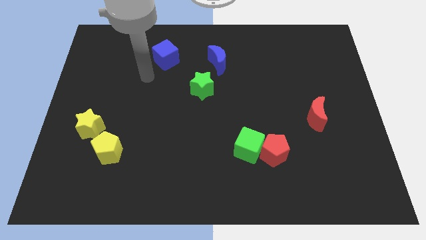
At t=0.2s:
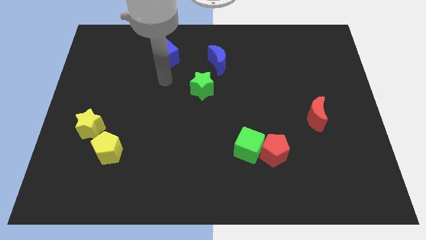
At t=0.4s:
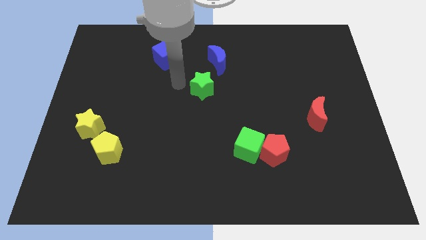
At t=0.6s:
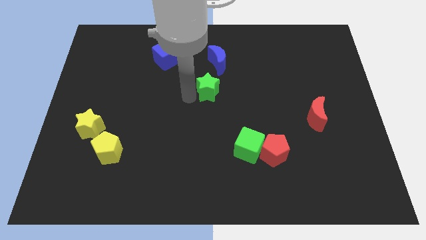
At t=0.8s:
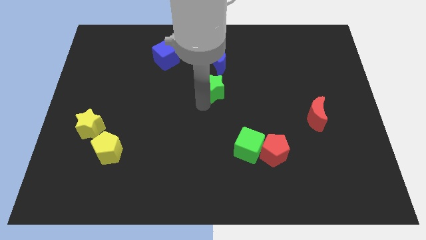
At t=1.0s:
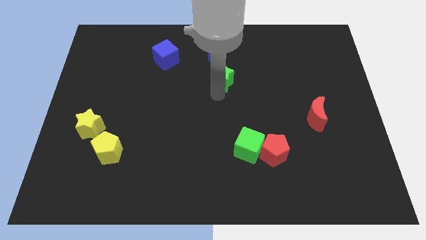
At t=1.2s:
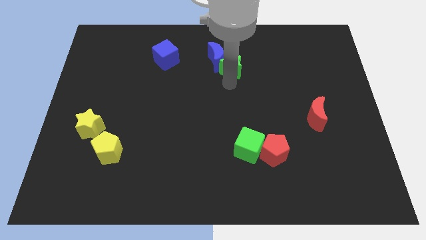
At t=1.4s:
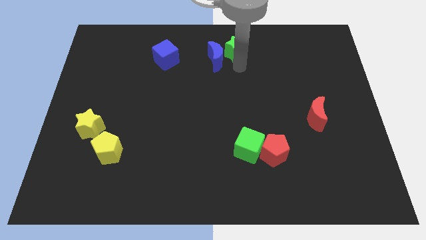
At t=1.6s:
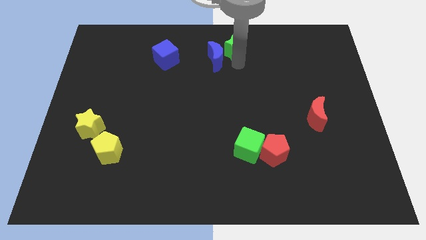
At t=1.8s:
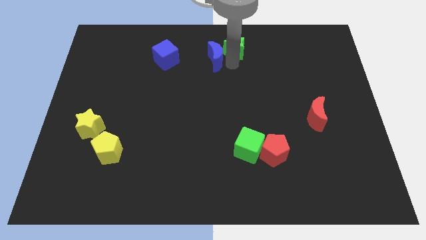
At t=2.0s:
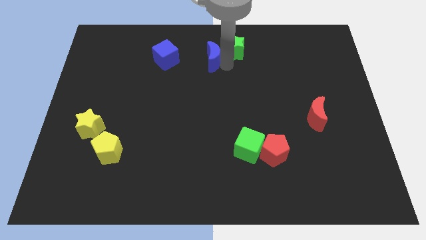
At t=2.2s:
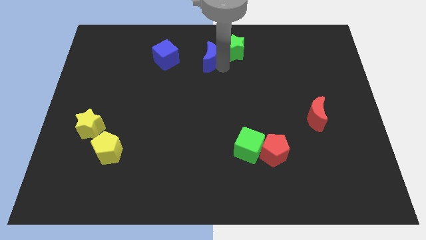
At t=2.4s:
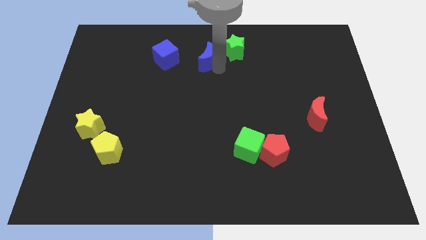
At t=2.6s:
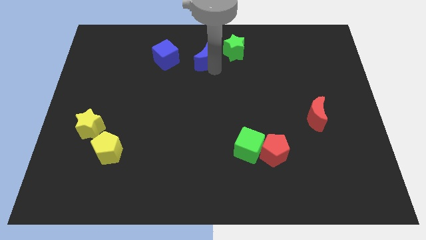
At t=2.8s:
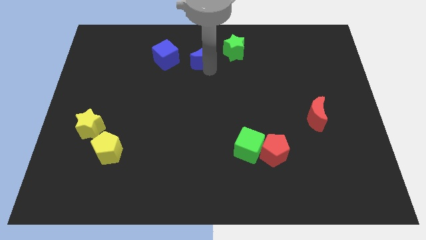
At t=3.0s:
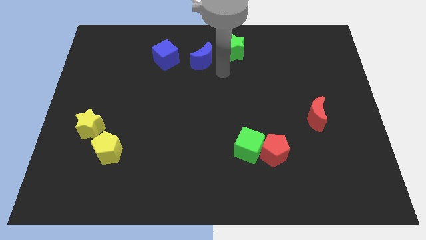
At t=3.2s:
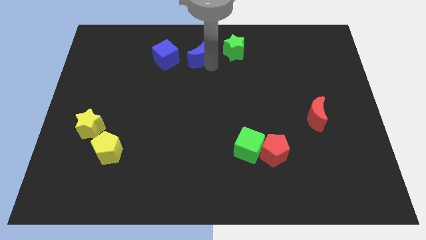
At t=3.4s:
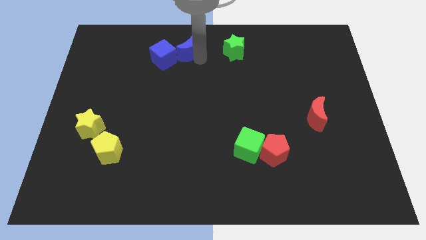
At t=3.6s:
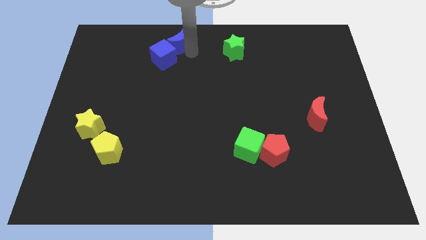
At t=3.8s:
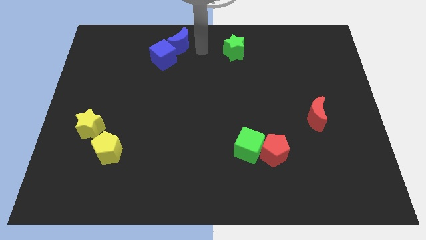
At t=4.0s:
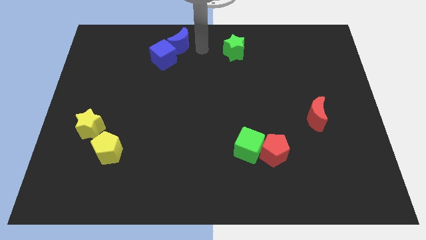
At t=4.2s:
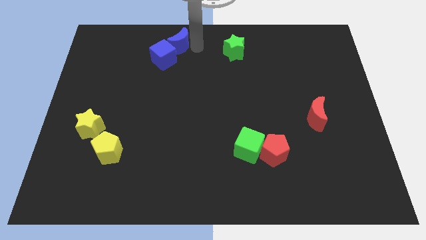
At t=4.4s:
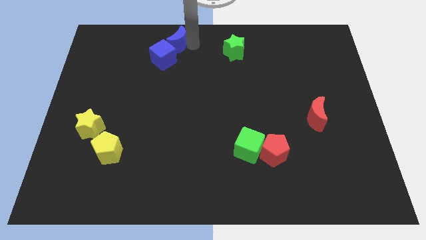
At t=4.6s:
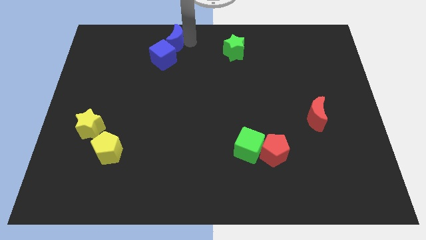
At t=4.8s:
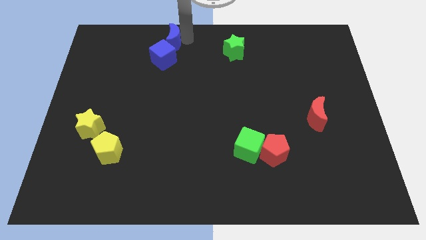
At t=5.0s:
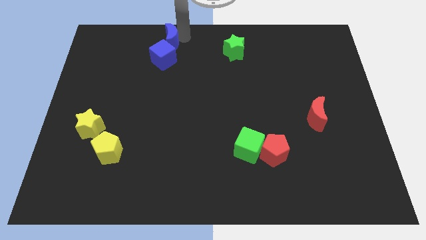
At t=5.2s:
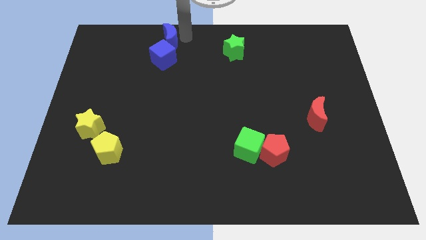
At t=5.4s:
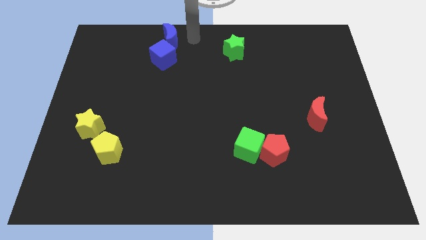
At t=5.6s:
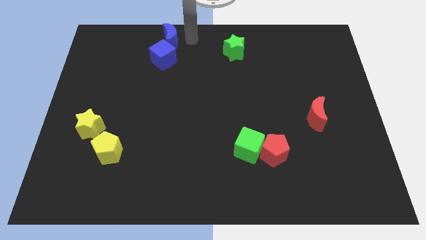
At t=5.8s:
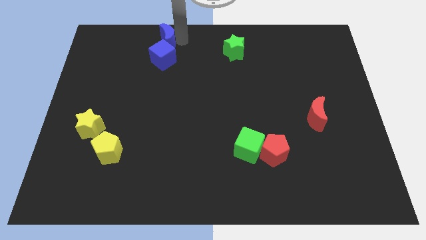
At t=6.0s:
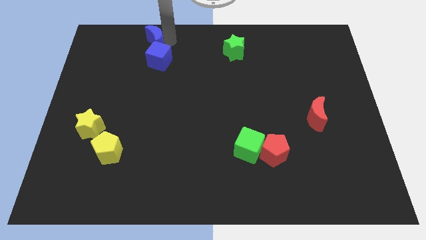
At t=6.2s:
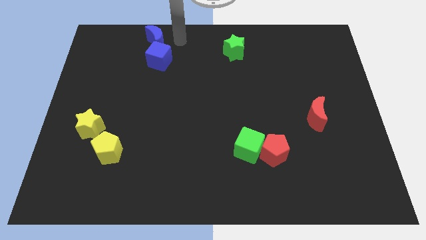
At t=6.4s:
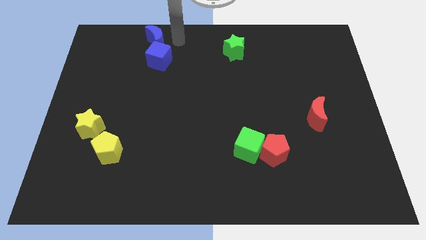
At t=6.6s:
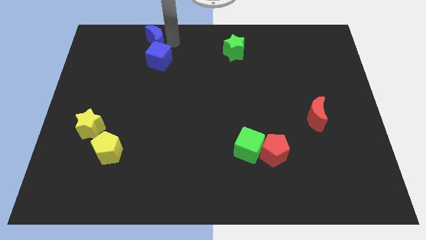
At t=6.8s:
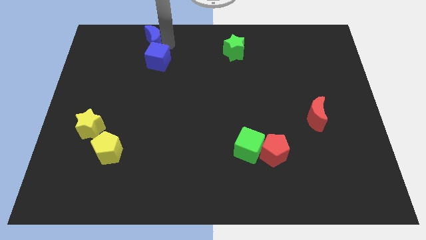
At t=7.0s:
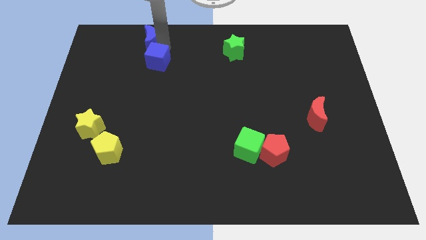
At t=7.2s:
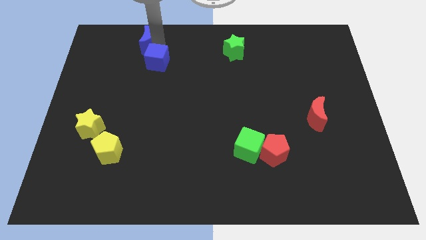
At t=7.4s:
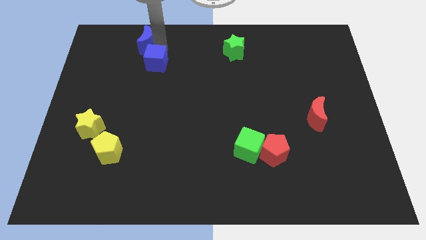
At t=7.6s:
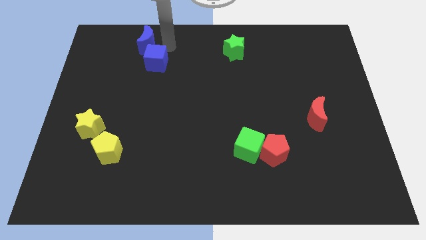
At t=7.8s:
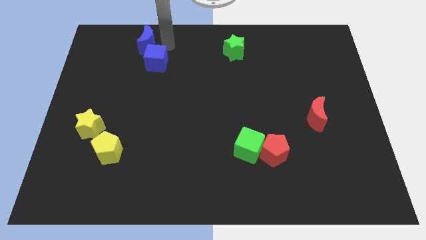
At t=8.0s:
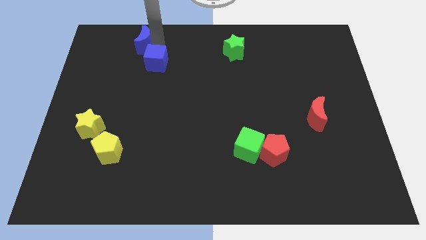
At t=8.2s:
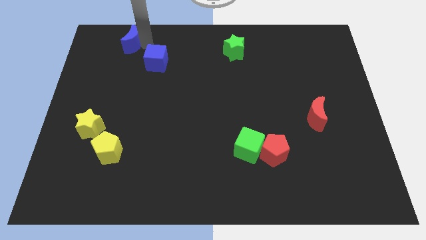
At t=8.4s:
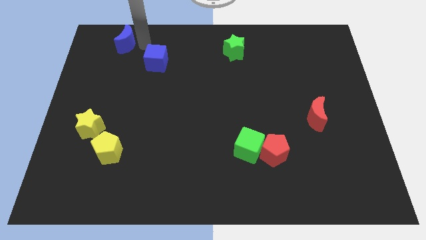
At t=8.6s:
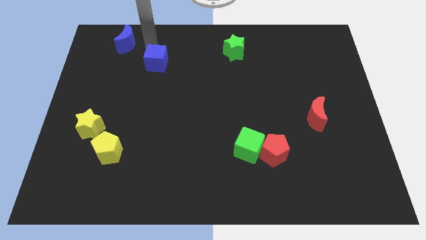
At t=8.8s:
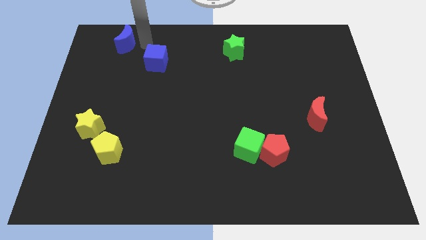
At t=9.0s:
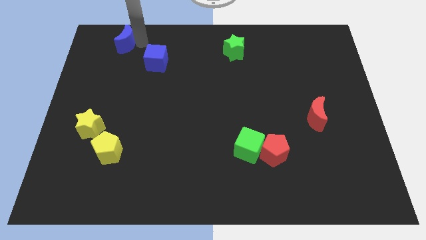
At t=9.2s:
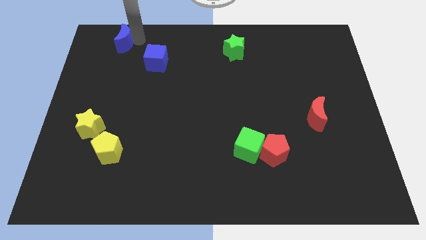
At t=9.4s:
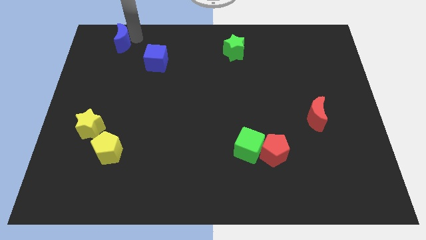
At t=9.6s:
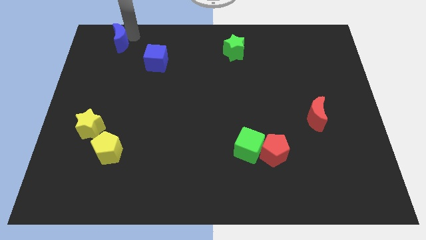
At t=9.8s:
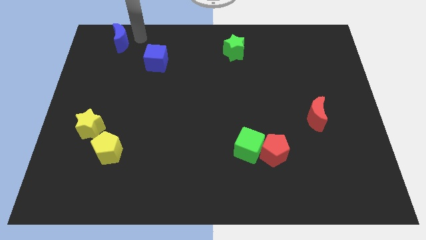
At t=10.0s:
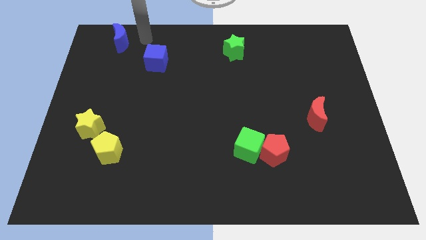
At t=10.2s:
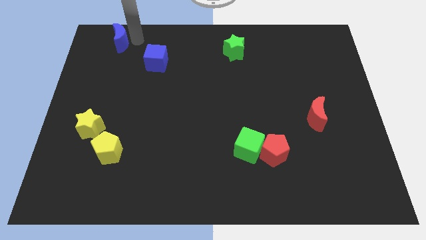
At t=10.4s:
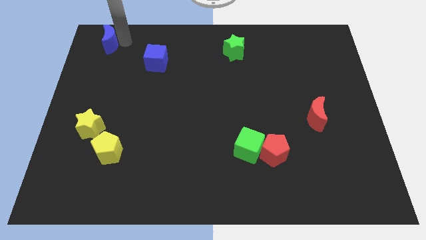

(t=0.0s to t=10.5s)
put the blue moon to the top left corner

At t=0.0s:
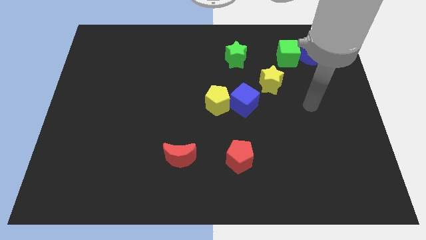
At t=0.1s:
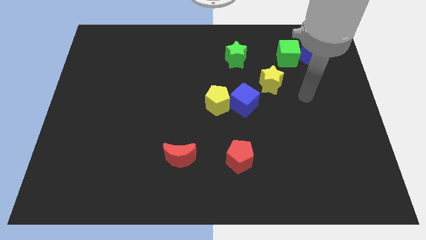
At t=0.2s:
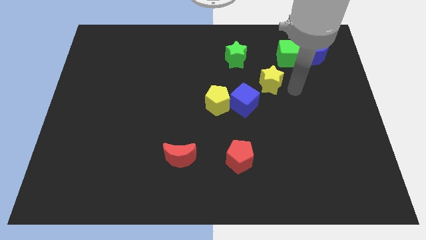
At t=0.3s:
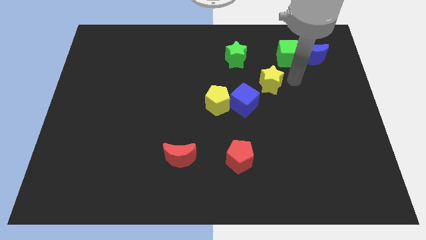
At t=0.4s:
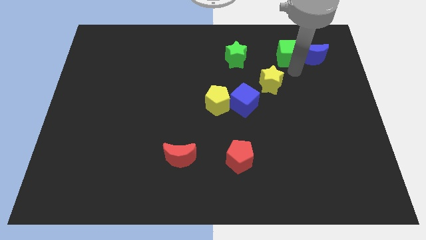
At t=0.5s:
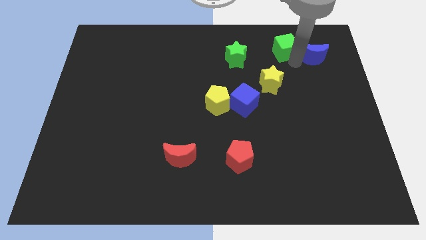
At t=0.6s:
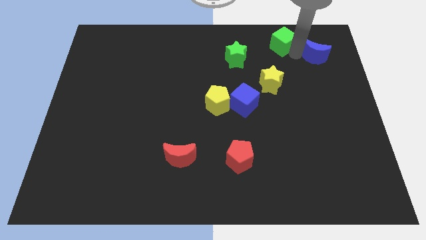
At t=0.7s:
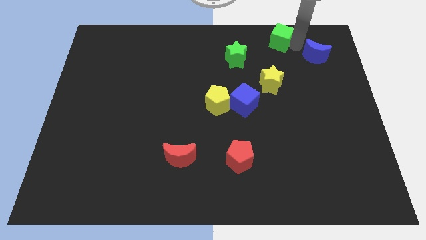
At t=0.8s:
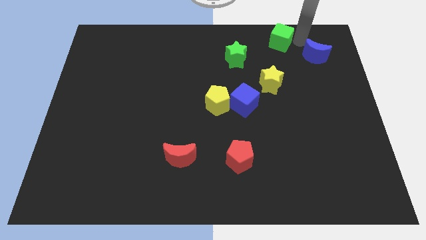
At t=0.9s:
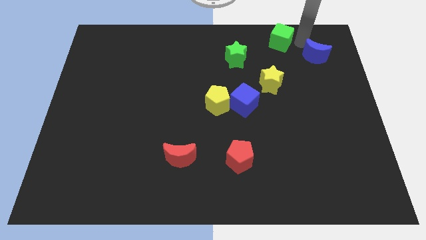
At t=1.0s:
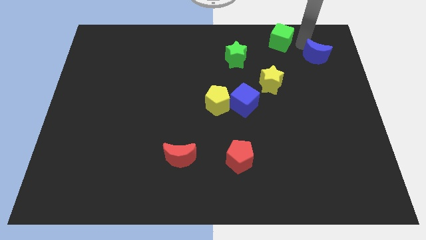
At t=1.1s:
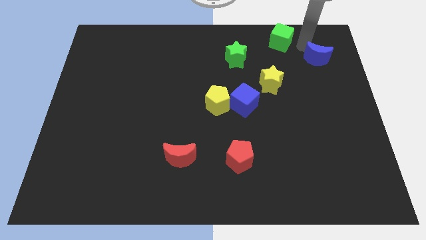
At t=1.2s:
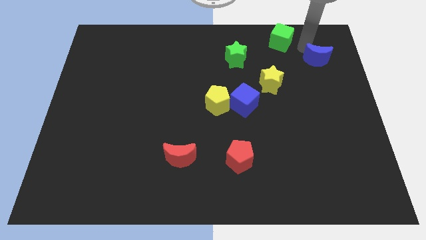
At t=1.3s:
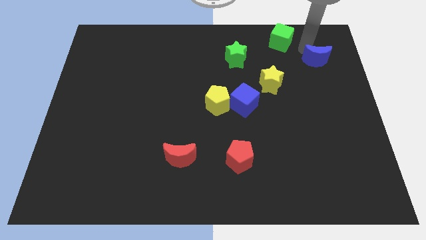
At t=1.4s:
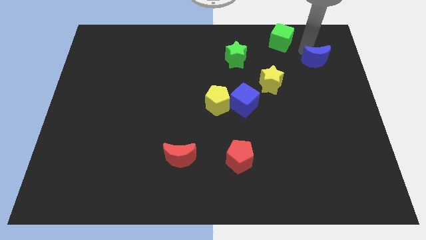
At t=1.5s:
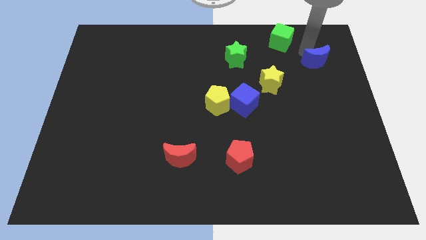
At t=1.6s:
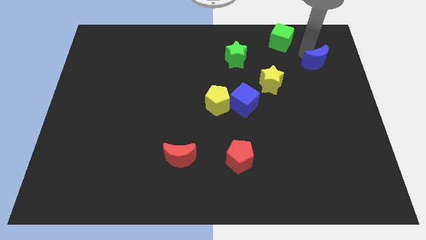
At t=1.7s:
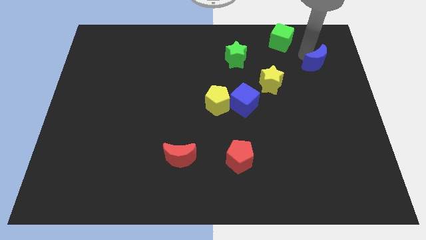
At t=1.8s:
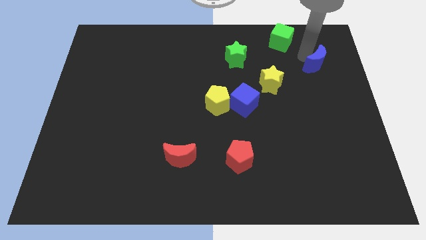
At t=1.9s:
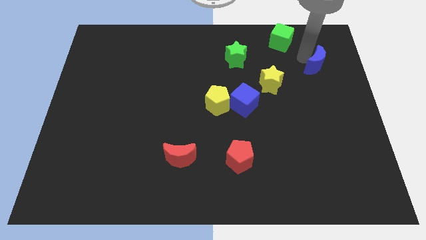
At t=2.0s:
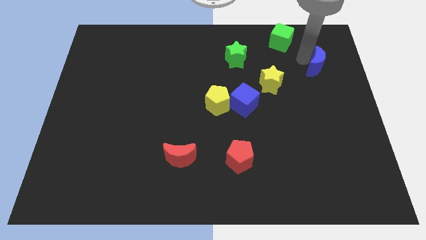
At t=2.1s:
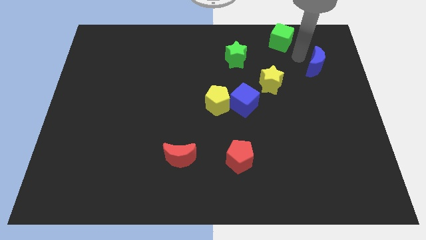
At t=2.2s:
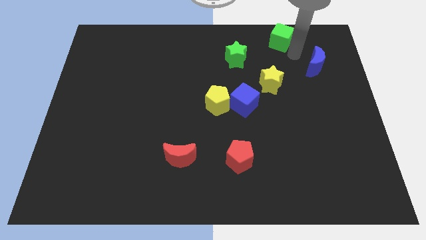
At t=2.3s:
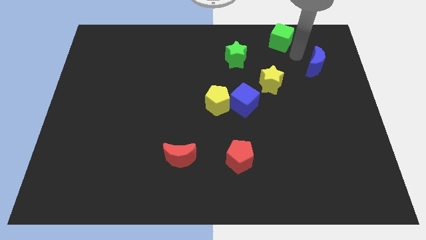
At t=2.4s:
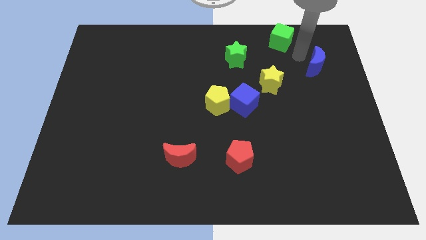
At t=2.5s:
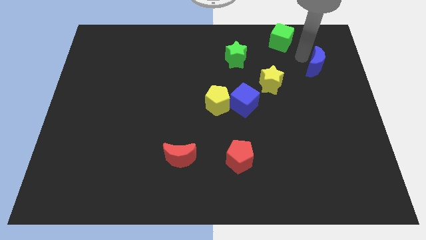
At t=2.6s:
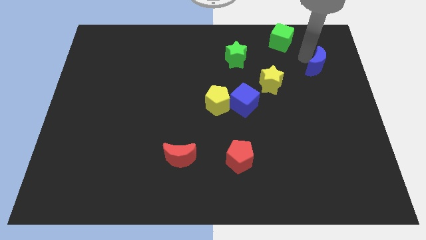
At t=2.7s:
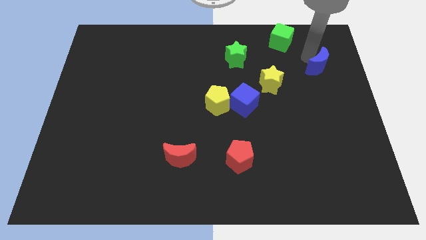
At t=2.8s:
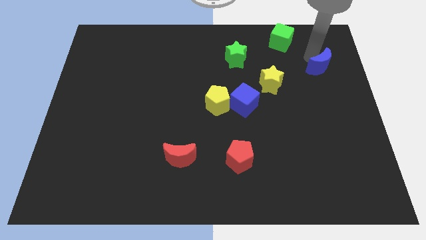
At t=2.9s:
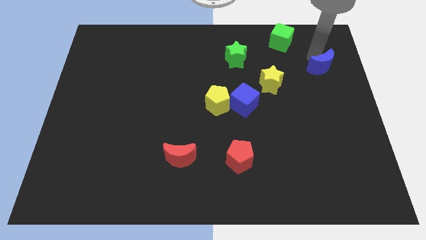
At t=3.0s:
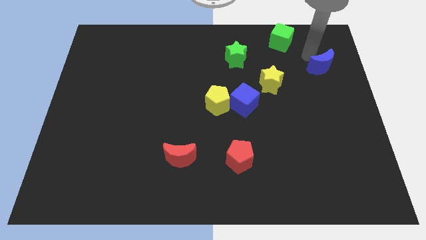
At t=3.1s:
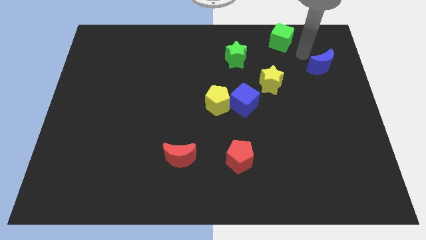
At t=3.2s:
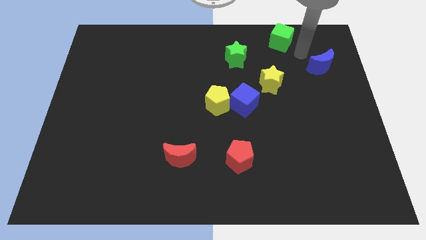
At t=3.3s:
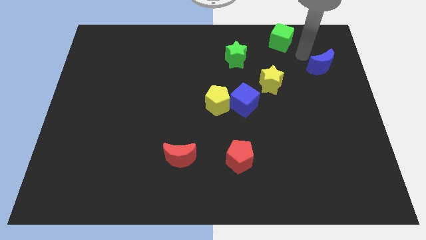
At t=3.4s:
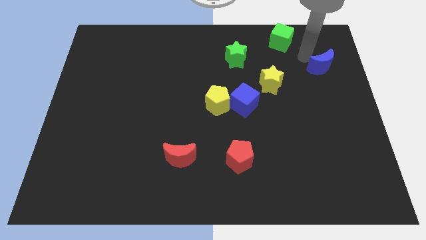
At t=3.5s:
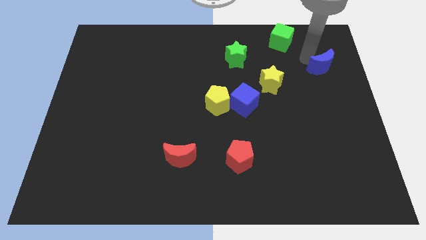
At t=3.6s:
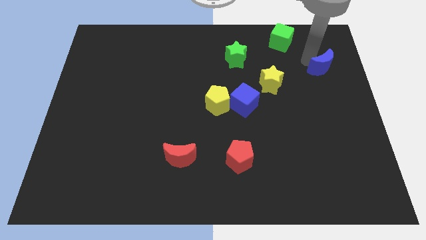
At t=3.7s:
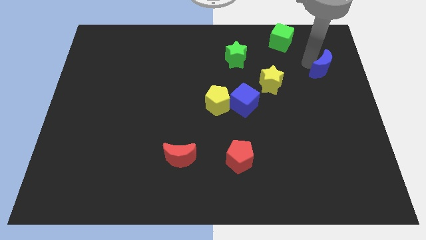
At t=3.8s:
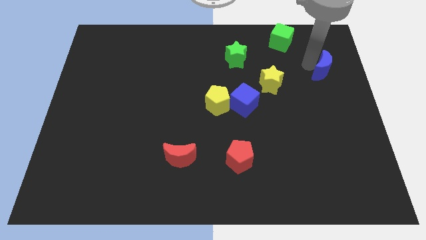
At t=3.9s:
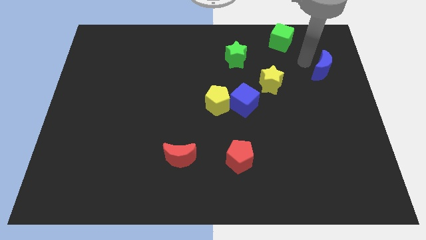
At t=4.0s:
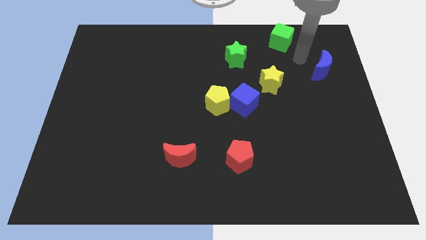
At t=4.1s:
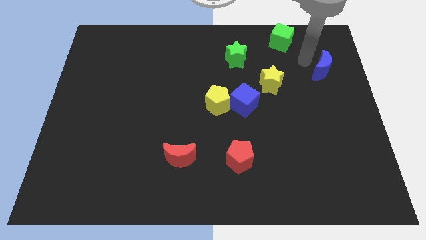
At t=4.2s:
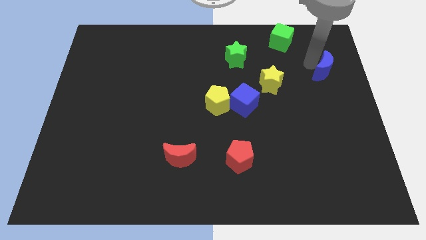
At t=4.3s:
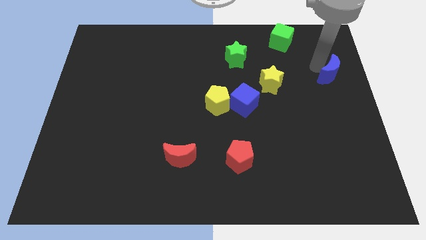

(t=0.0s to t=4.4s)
move the blue moon to the right side
